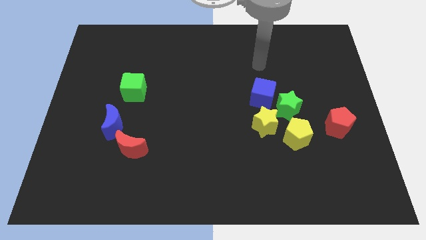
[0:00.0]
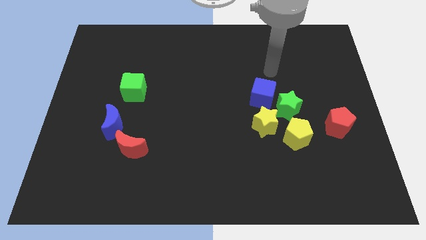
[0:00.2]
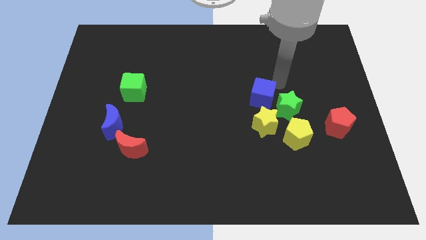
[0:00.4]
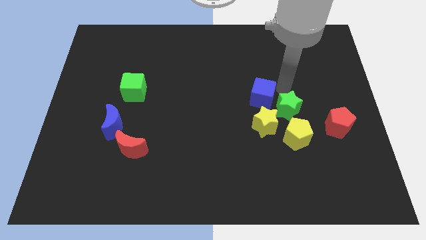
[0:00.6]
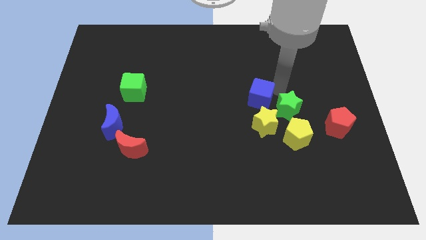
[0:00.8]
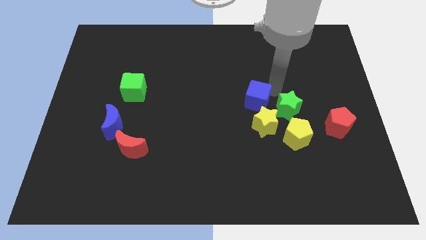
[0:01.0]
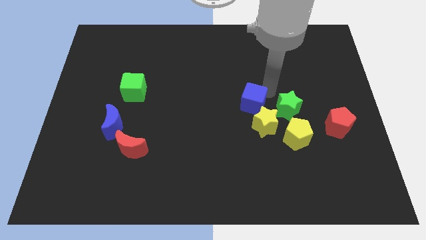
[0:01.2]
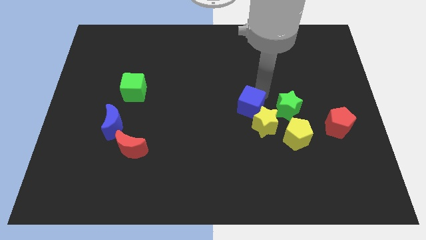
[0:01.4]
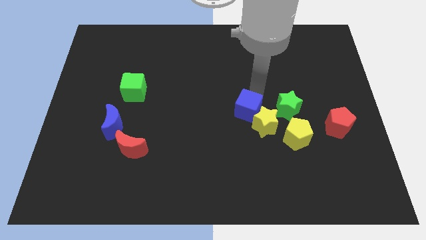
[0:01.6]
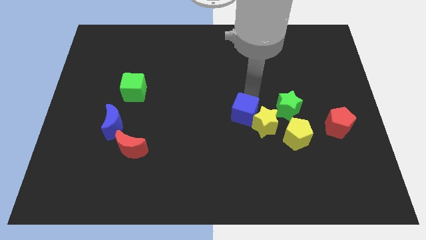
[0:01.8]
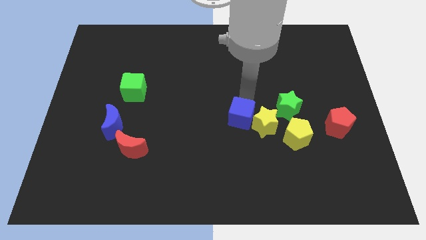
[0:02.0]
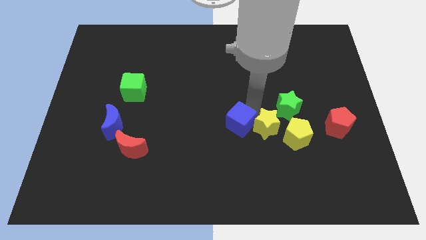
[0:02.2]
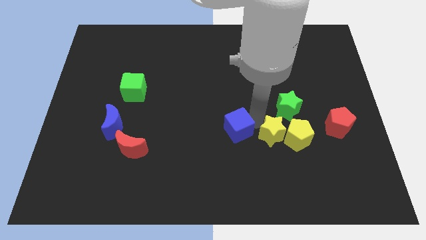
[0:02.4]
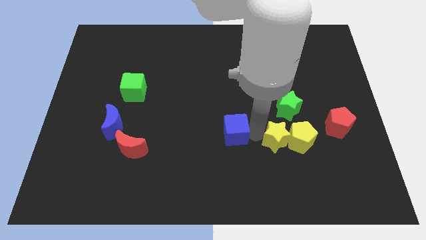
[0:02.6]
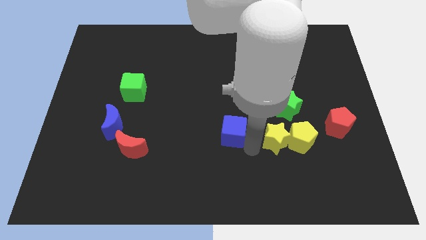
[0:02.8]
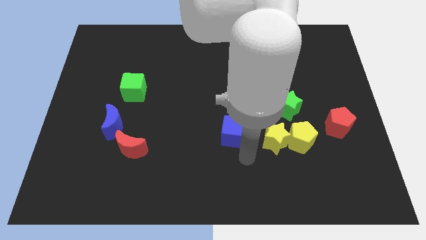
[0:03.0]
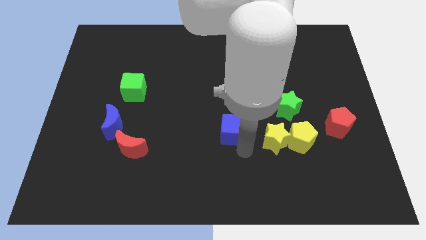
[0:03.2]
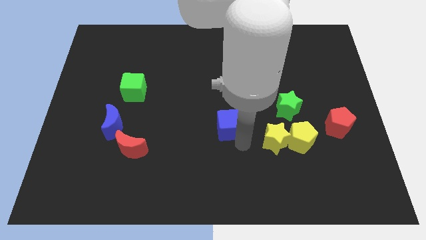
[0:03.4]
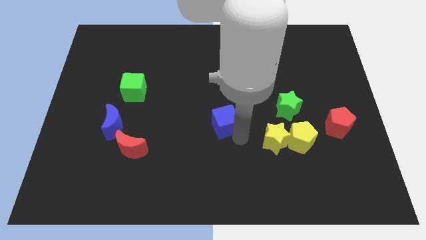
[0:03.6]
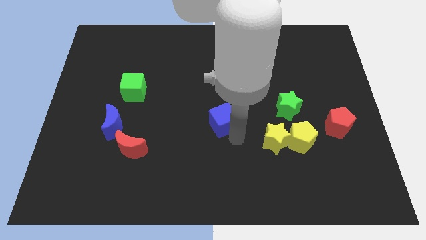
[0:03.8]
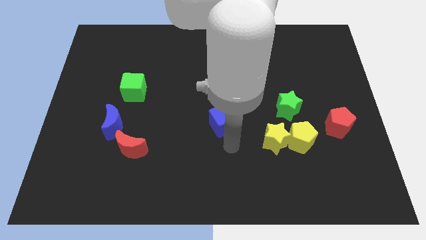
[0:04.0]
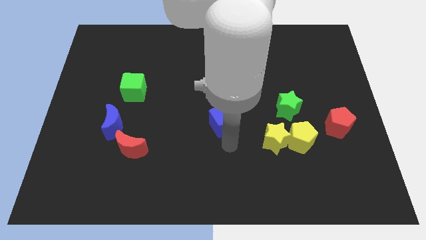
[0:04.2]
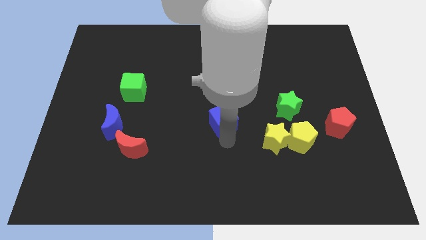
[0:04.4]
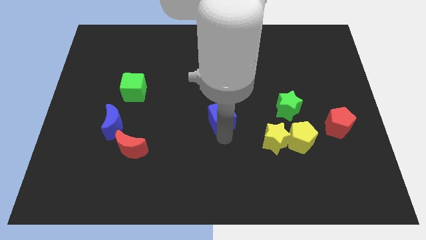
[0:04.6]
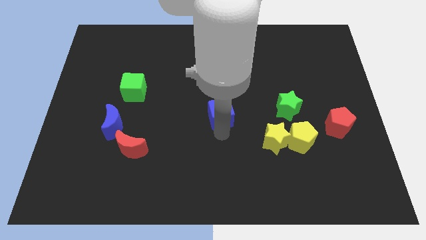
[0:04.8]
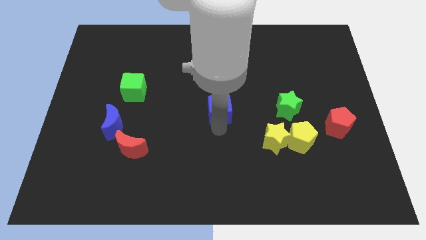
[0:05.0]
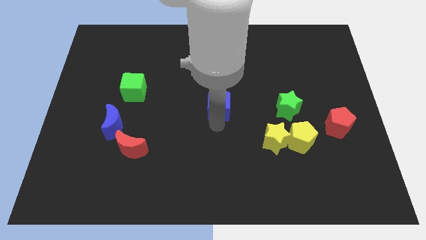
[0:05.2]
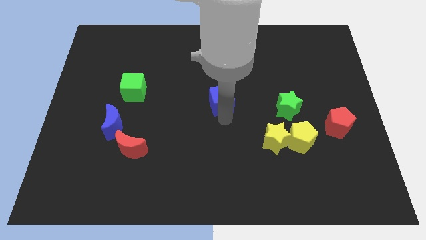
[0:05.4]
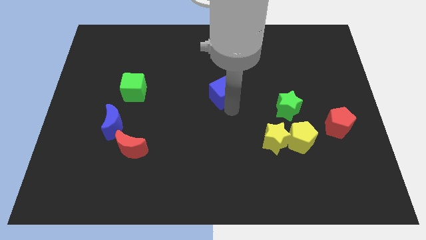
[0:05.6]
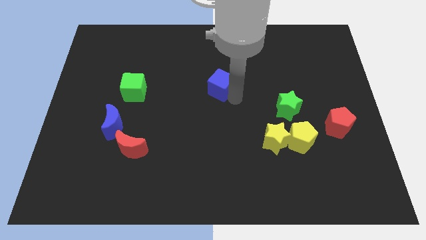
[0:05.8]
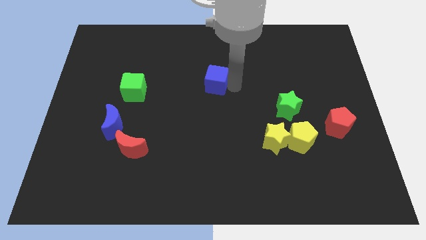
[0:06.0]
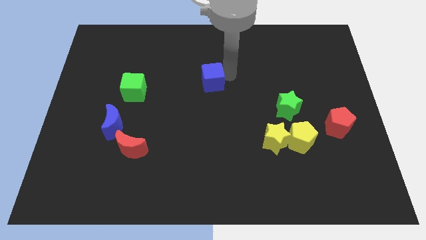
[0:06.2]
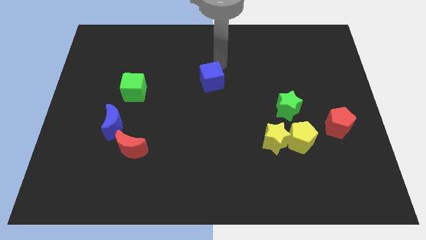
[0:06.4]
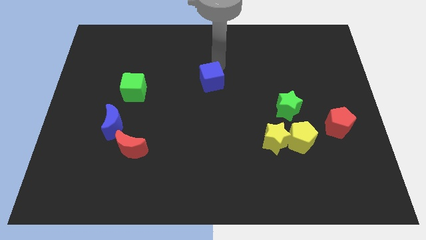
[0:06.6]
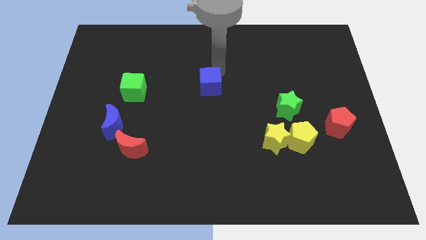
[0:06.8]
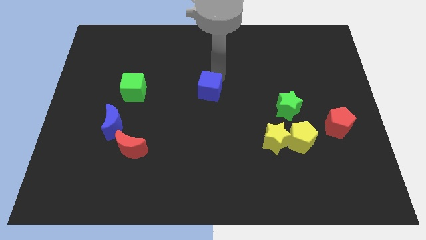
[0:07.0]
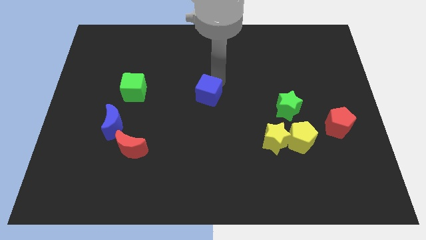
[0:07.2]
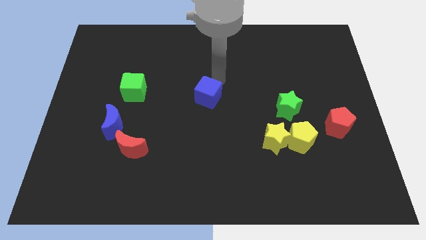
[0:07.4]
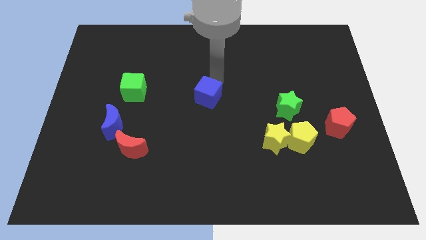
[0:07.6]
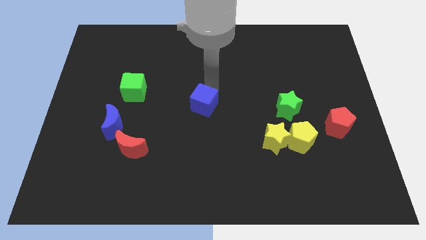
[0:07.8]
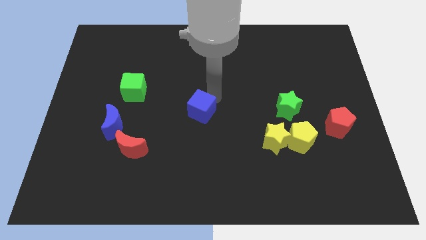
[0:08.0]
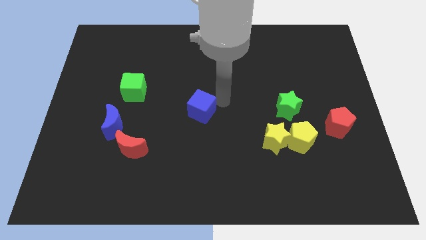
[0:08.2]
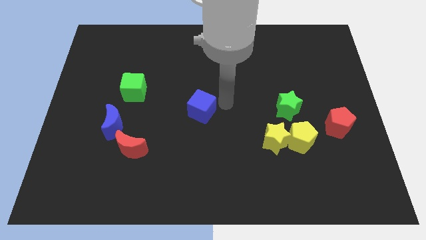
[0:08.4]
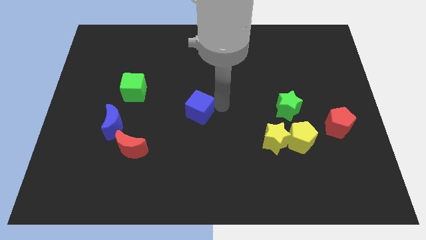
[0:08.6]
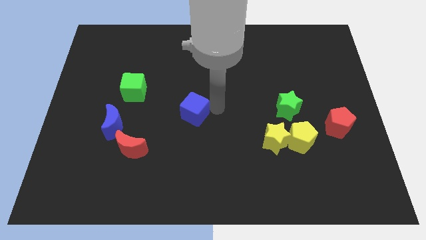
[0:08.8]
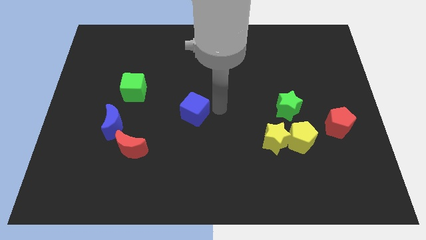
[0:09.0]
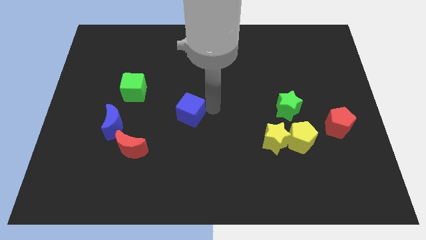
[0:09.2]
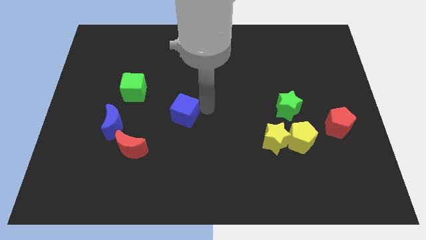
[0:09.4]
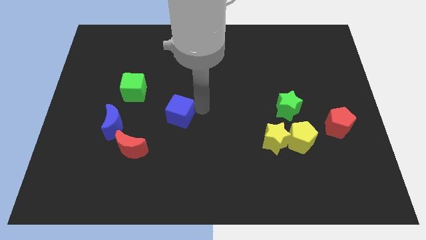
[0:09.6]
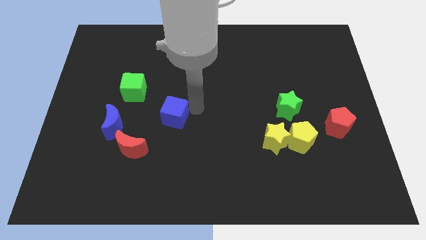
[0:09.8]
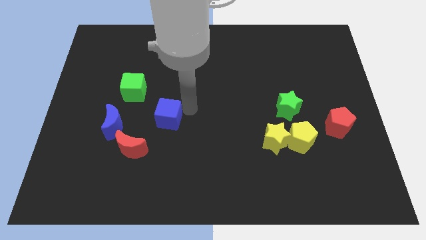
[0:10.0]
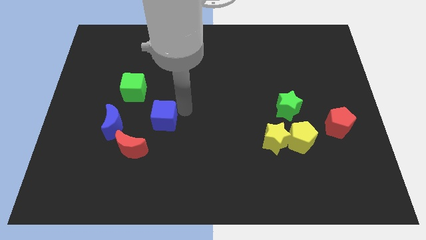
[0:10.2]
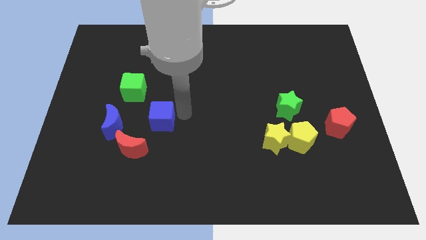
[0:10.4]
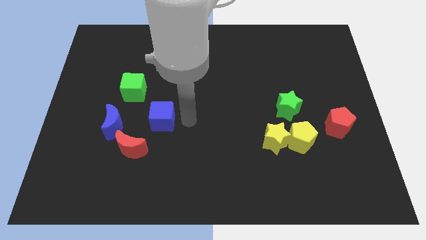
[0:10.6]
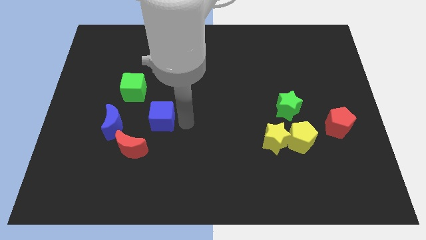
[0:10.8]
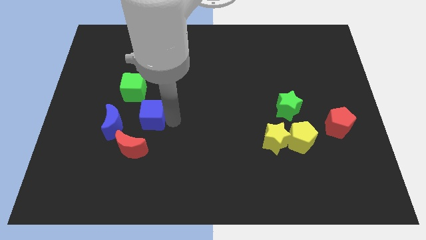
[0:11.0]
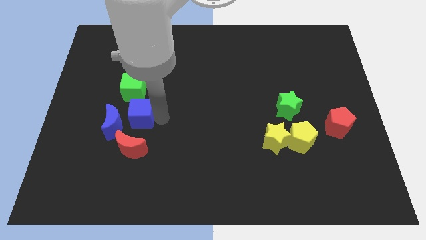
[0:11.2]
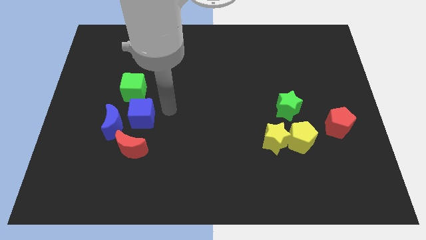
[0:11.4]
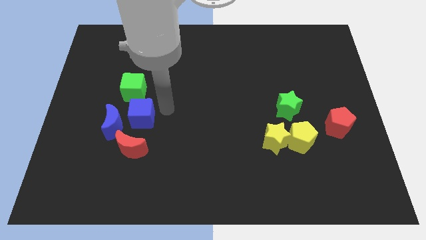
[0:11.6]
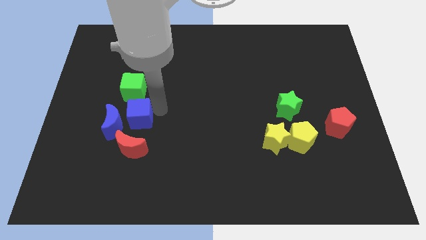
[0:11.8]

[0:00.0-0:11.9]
slide the blue cube next to the blue moon

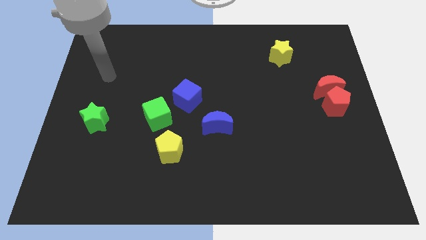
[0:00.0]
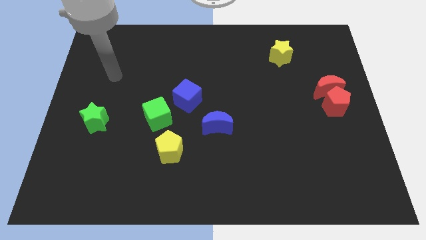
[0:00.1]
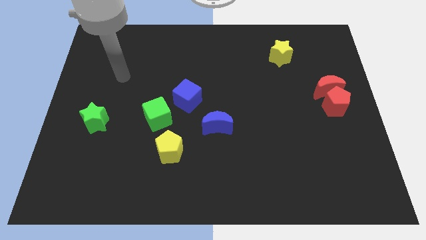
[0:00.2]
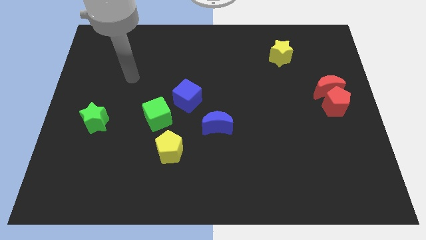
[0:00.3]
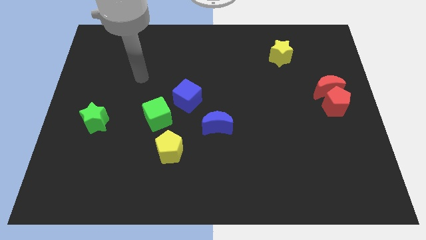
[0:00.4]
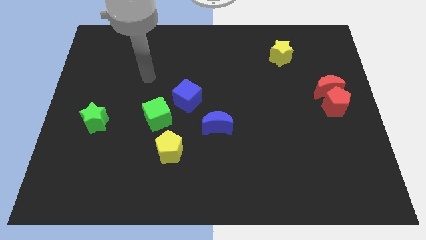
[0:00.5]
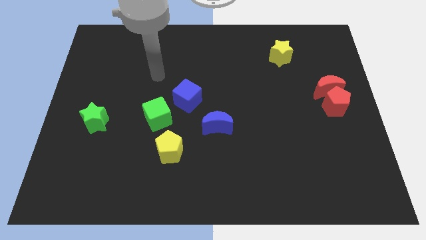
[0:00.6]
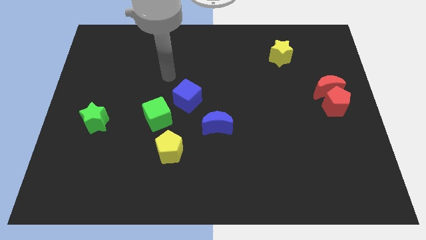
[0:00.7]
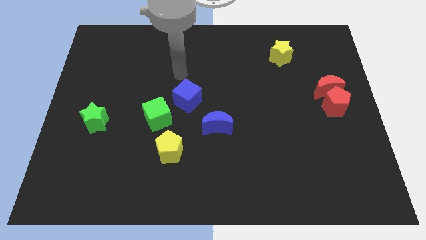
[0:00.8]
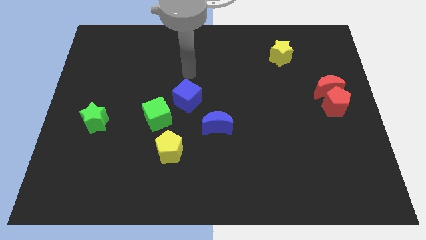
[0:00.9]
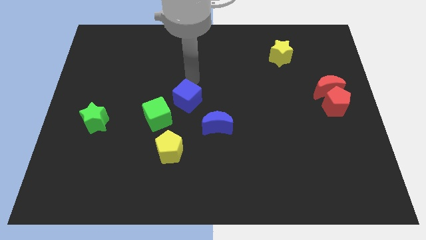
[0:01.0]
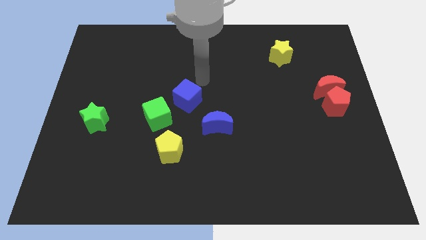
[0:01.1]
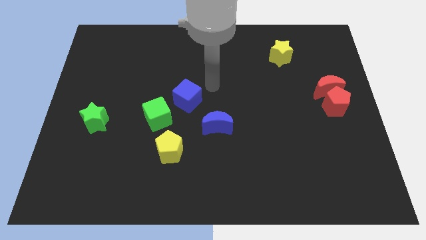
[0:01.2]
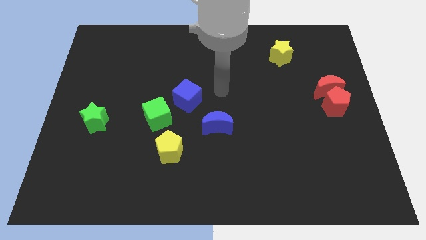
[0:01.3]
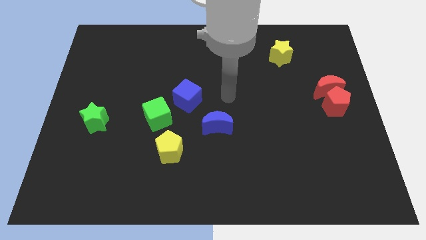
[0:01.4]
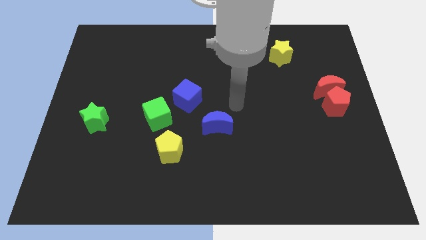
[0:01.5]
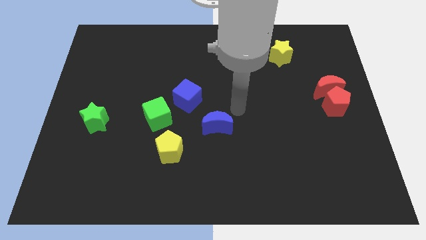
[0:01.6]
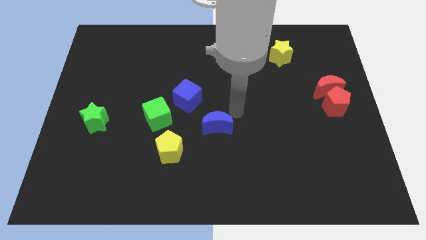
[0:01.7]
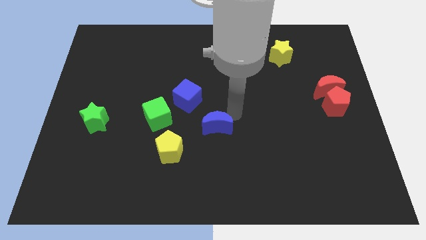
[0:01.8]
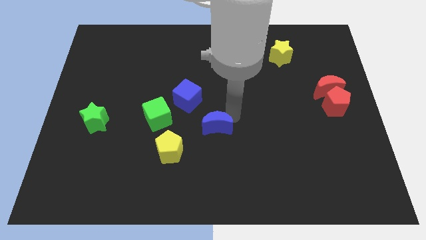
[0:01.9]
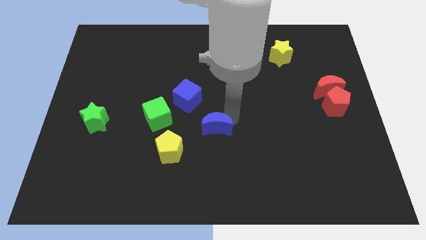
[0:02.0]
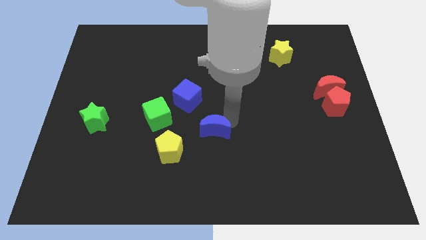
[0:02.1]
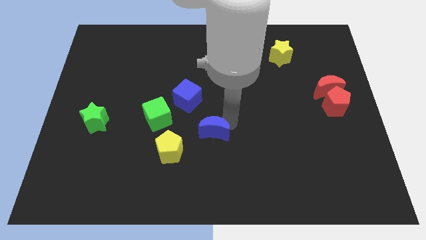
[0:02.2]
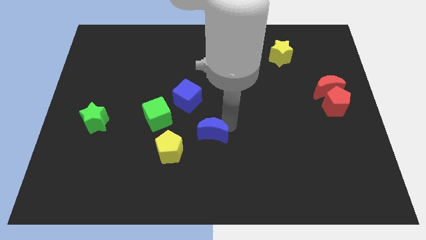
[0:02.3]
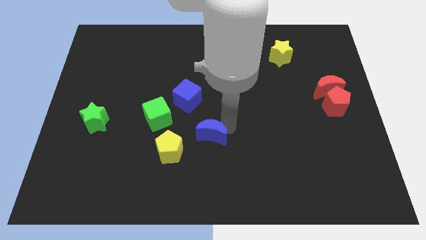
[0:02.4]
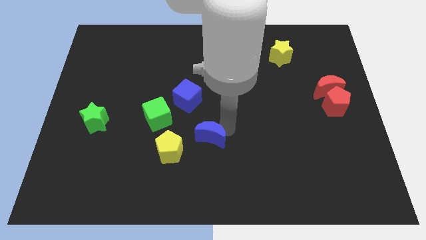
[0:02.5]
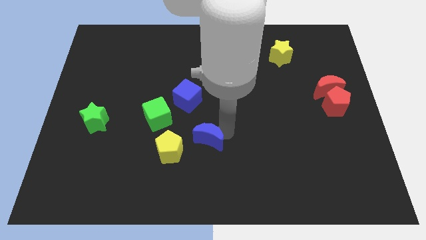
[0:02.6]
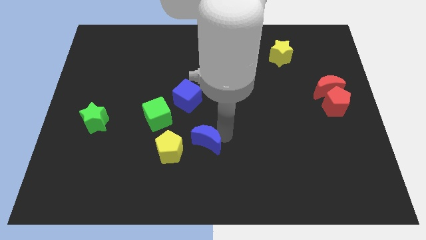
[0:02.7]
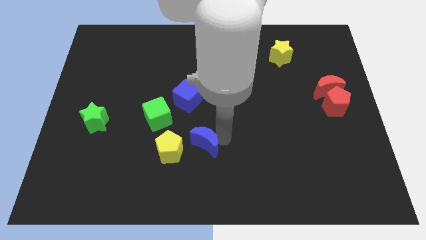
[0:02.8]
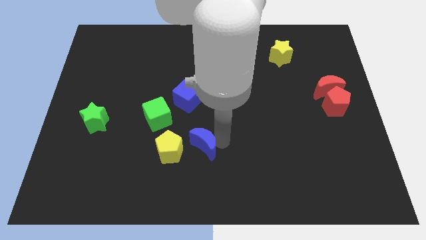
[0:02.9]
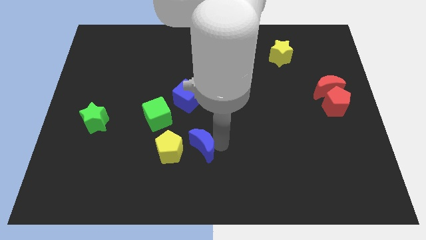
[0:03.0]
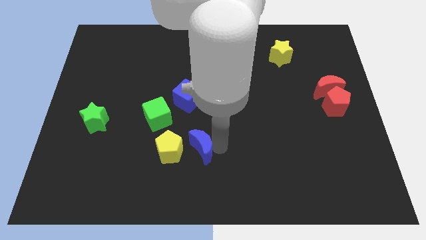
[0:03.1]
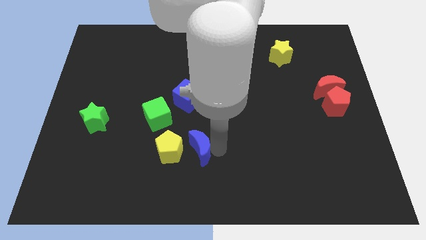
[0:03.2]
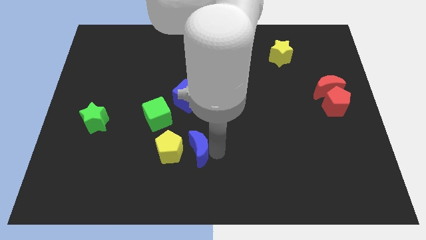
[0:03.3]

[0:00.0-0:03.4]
put the blue moon to the yellow pentagon
